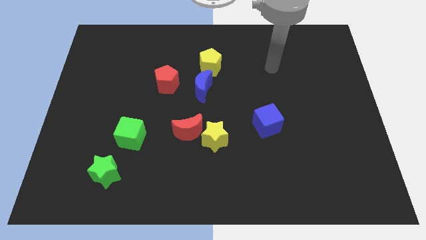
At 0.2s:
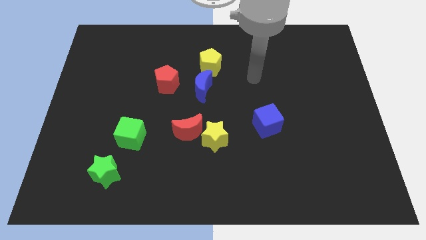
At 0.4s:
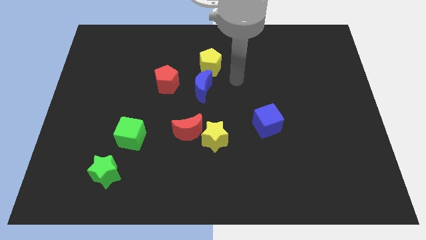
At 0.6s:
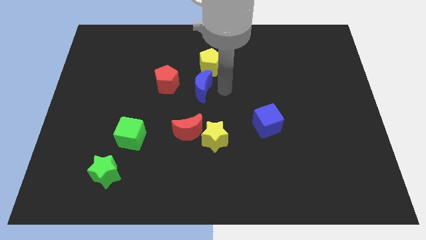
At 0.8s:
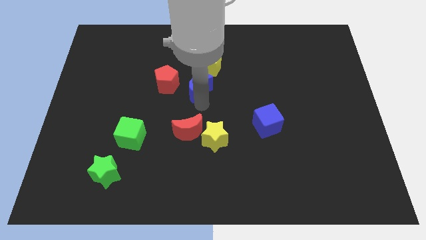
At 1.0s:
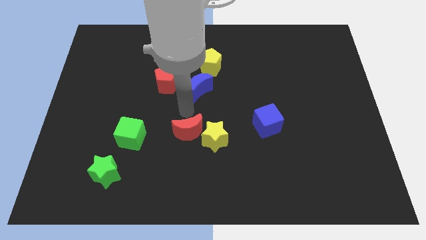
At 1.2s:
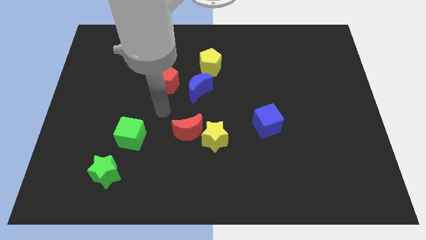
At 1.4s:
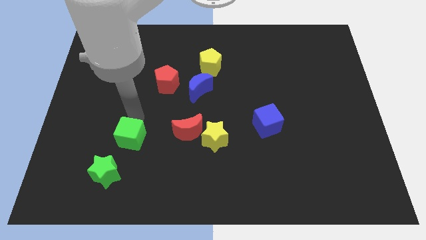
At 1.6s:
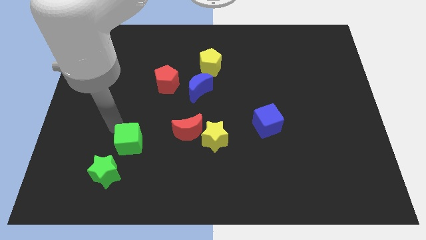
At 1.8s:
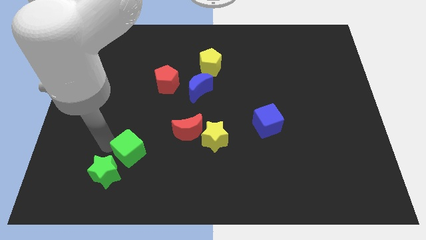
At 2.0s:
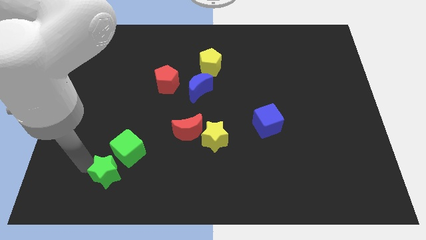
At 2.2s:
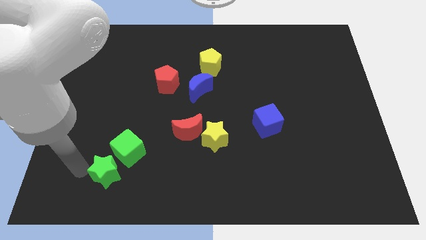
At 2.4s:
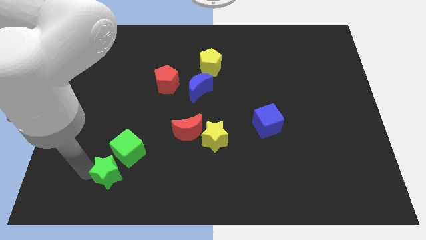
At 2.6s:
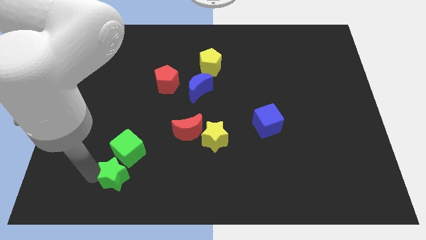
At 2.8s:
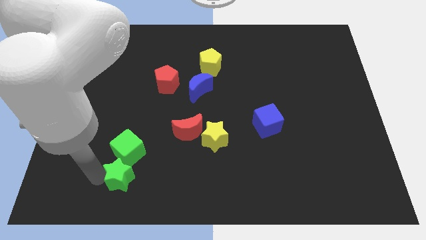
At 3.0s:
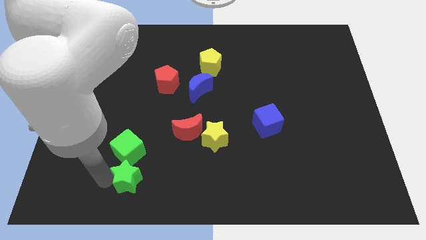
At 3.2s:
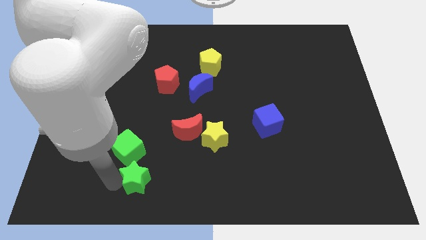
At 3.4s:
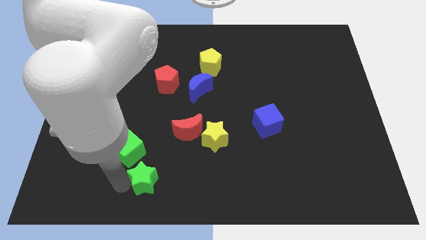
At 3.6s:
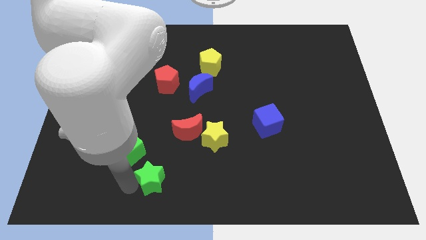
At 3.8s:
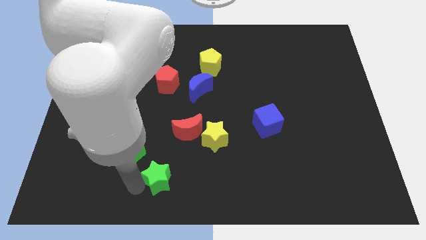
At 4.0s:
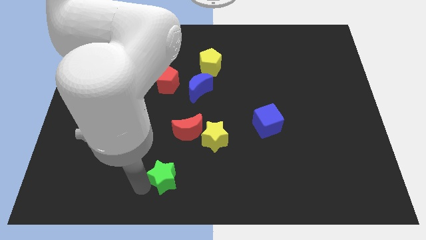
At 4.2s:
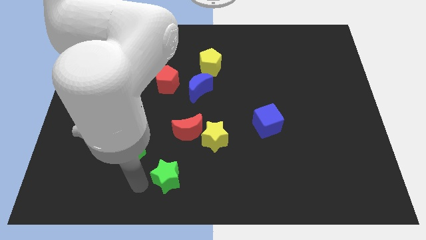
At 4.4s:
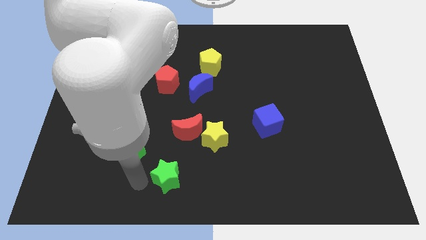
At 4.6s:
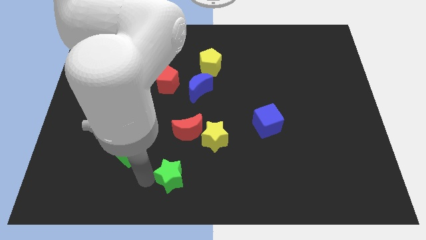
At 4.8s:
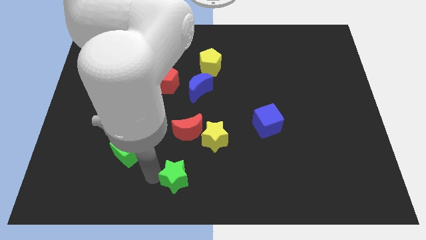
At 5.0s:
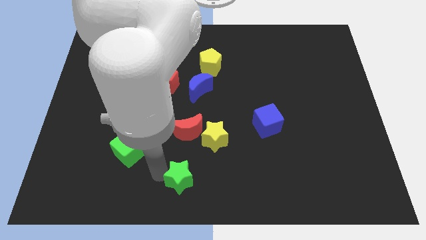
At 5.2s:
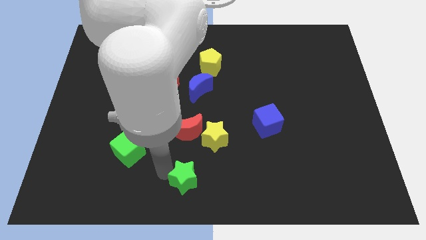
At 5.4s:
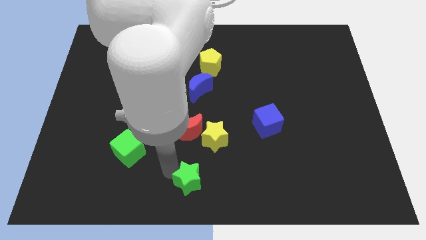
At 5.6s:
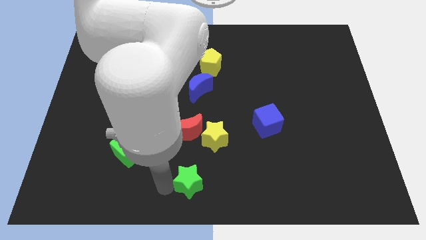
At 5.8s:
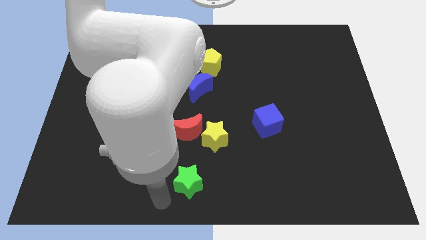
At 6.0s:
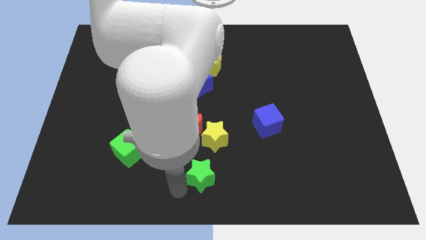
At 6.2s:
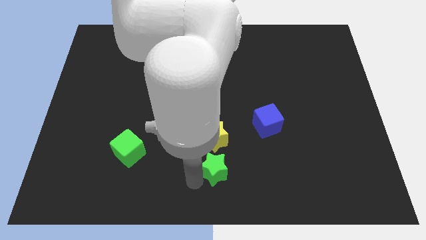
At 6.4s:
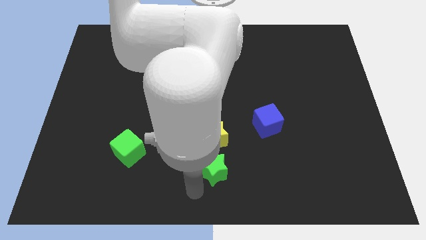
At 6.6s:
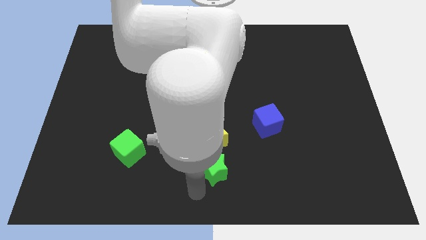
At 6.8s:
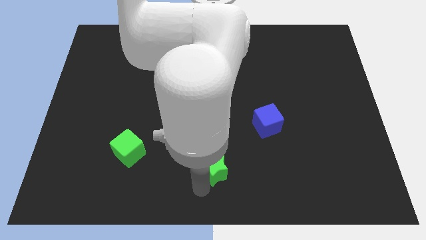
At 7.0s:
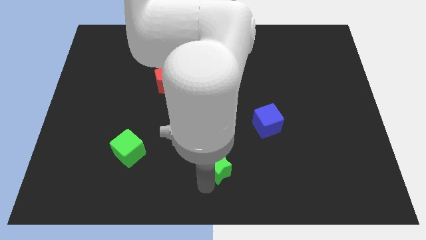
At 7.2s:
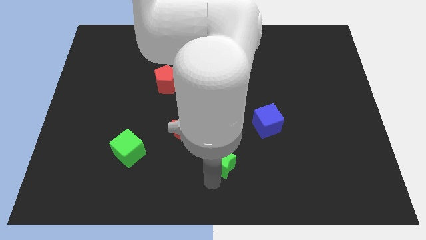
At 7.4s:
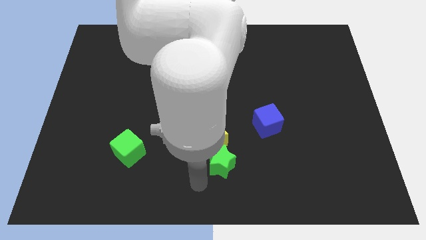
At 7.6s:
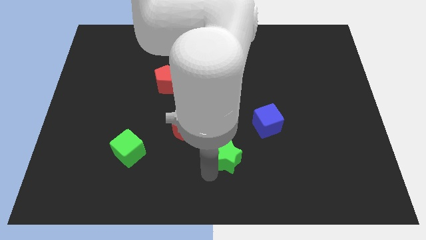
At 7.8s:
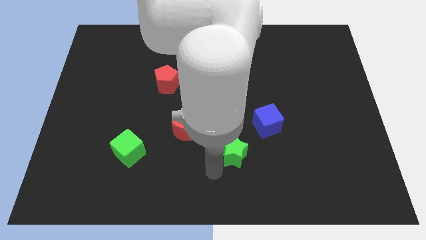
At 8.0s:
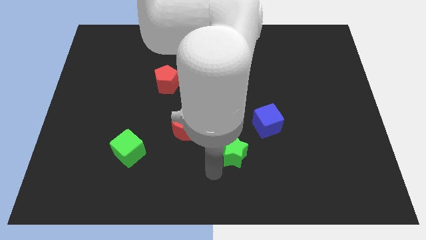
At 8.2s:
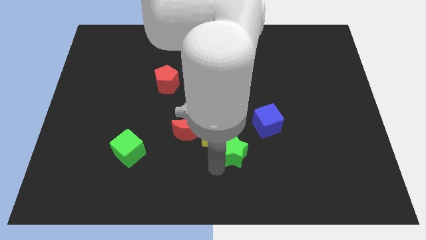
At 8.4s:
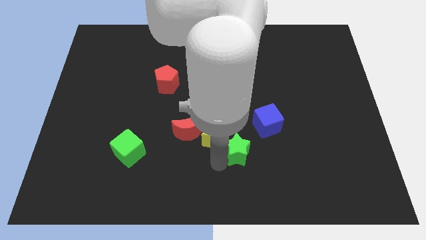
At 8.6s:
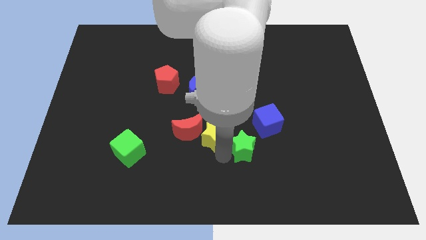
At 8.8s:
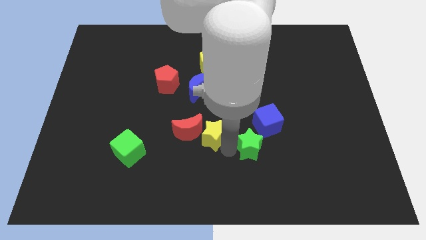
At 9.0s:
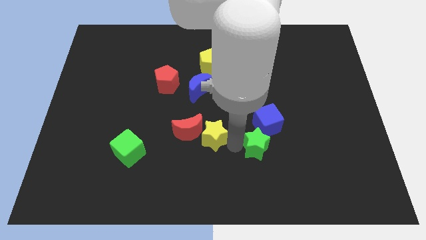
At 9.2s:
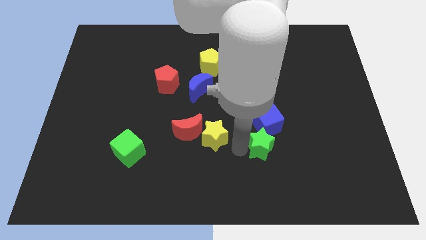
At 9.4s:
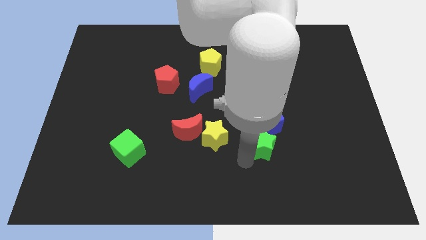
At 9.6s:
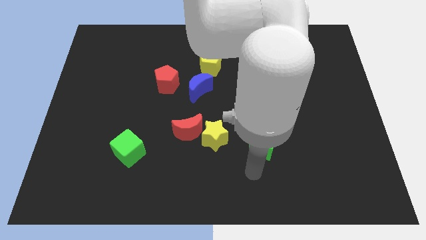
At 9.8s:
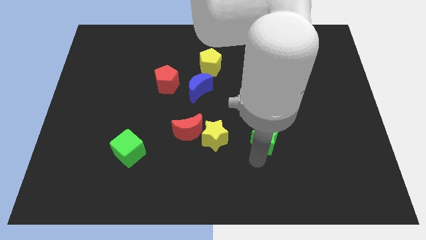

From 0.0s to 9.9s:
push the green star towards the blue cube

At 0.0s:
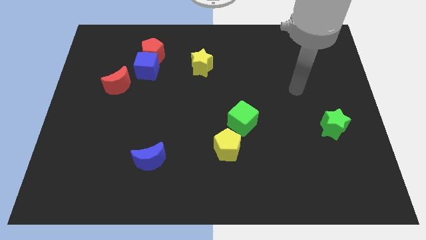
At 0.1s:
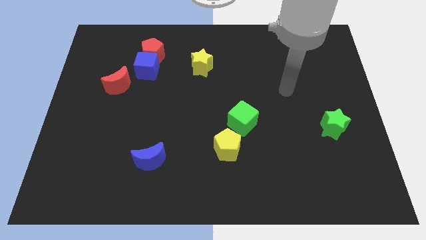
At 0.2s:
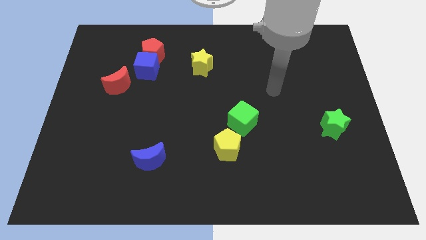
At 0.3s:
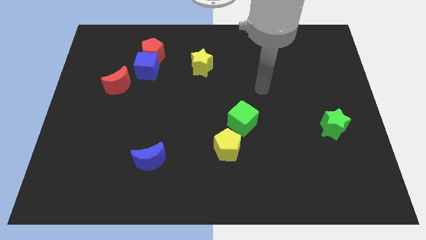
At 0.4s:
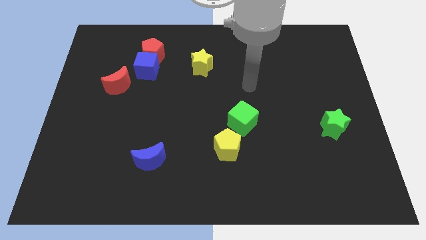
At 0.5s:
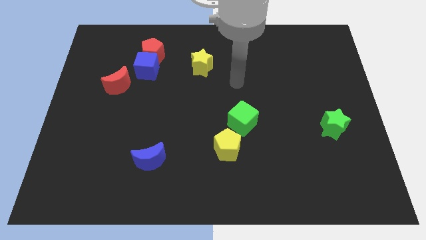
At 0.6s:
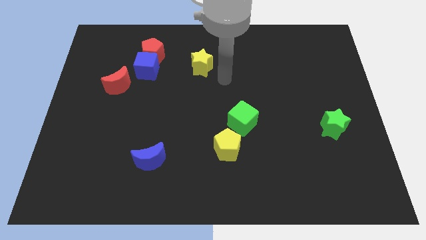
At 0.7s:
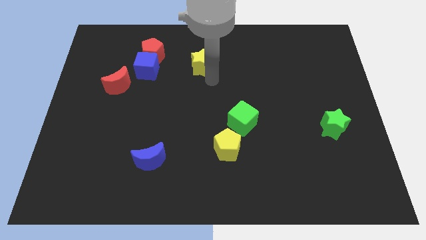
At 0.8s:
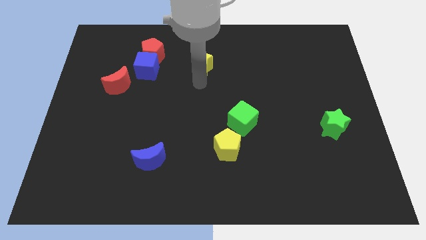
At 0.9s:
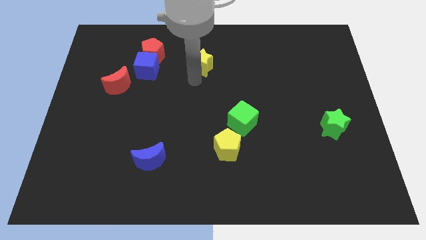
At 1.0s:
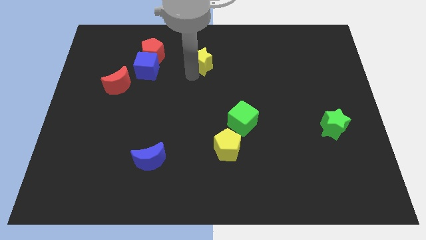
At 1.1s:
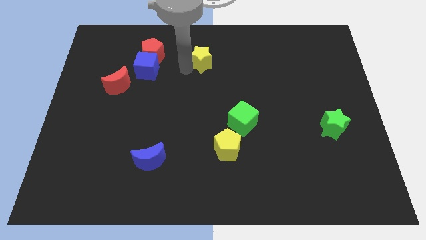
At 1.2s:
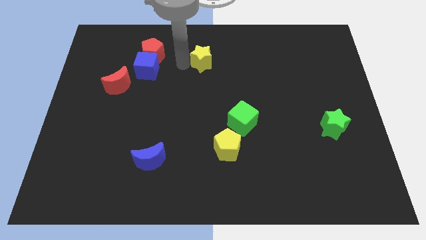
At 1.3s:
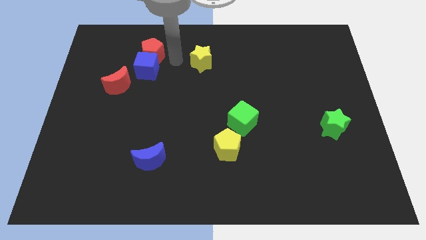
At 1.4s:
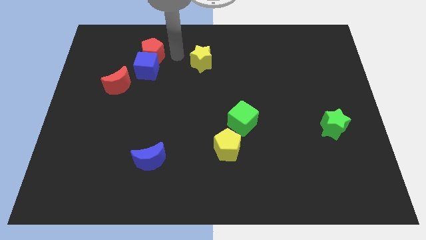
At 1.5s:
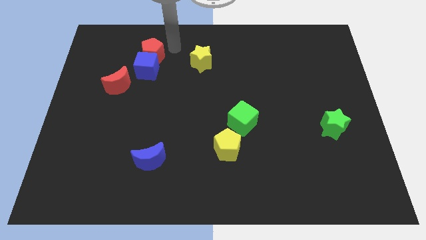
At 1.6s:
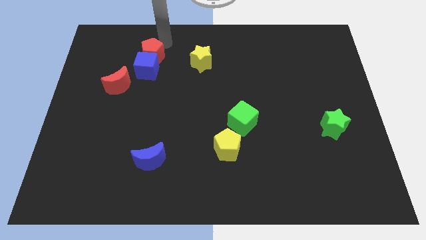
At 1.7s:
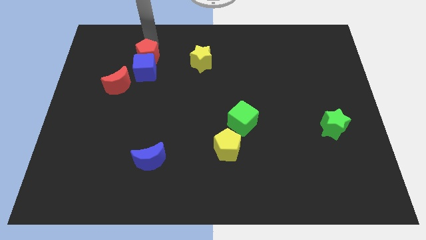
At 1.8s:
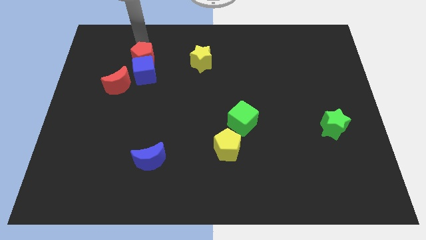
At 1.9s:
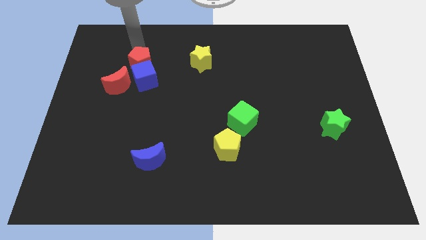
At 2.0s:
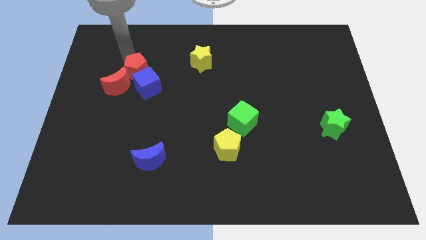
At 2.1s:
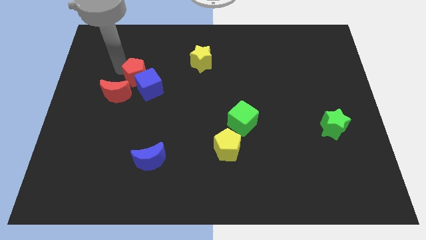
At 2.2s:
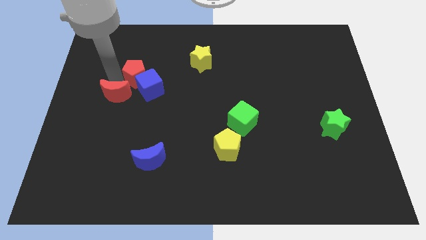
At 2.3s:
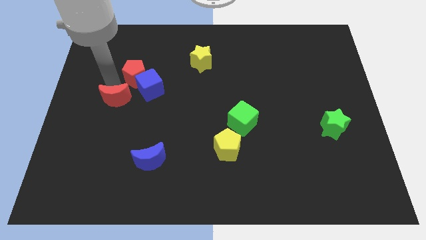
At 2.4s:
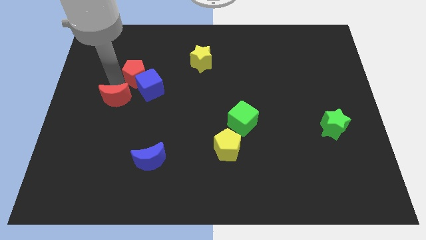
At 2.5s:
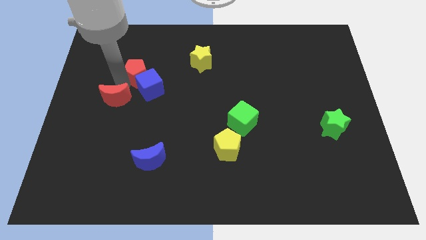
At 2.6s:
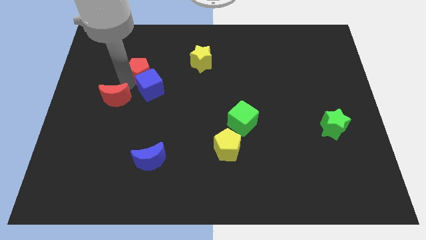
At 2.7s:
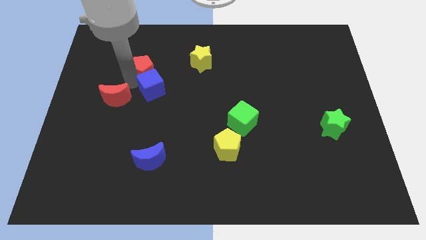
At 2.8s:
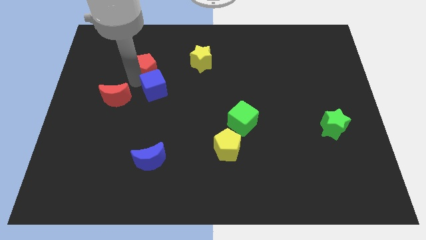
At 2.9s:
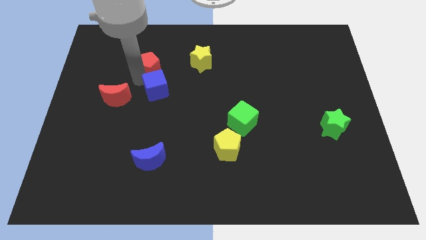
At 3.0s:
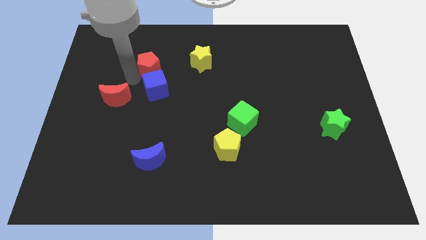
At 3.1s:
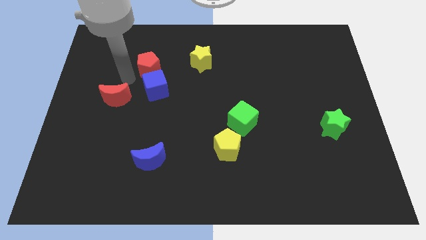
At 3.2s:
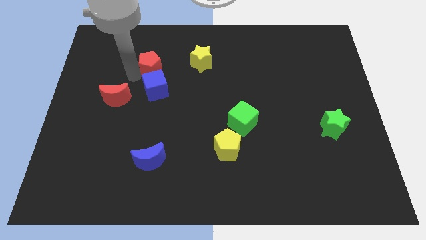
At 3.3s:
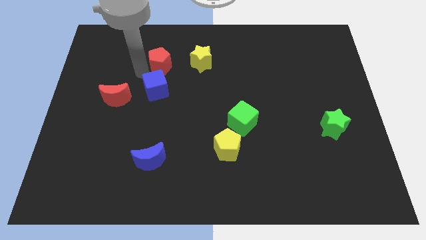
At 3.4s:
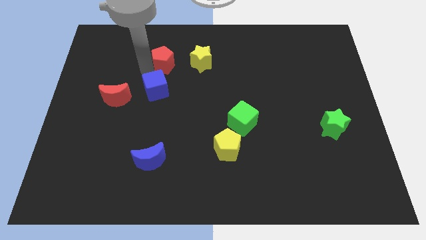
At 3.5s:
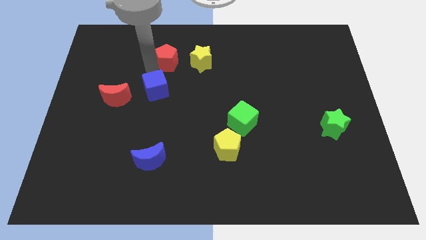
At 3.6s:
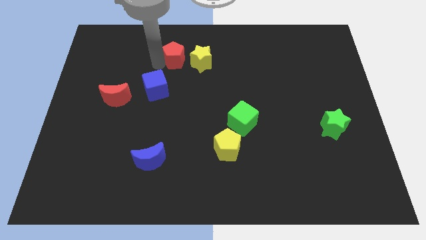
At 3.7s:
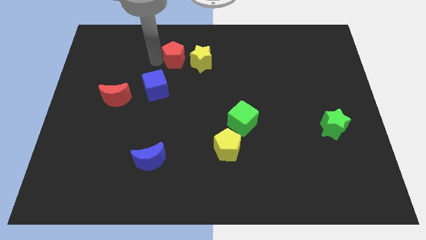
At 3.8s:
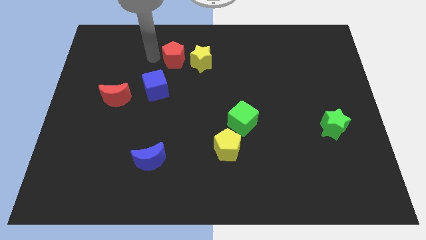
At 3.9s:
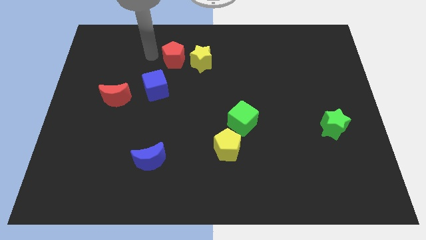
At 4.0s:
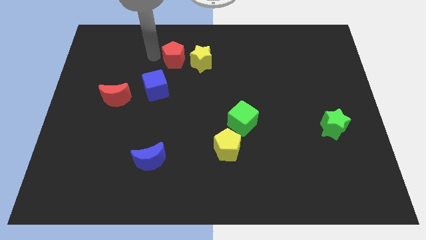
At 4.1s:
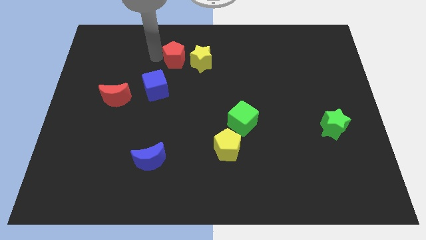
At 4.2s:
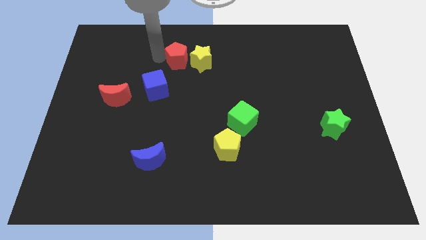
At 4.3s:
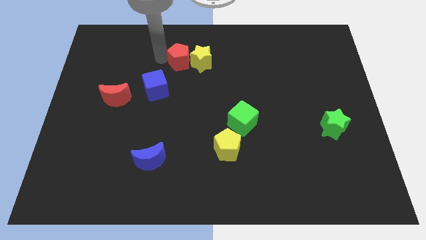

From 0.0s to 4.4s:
move the red pentagon close to the yellow star
